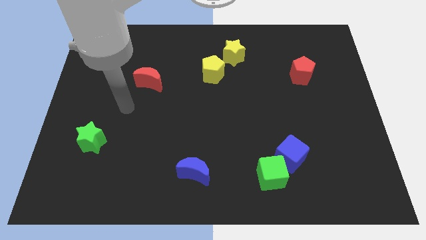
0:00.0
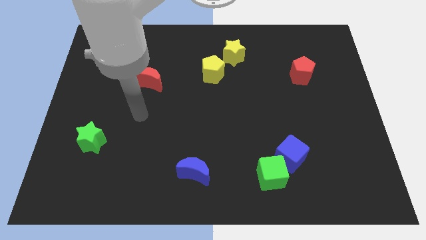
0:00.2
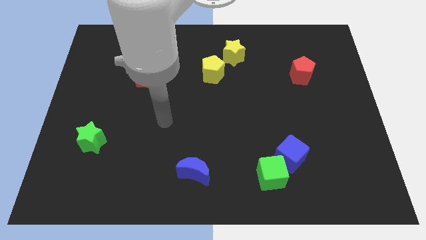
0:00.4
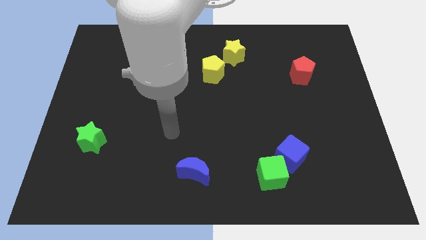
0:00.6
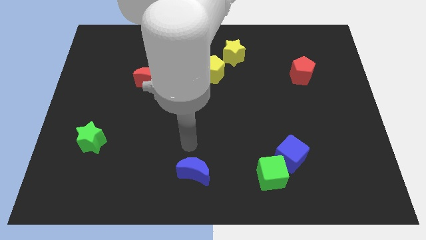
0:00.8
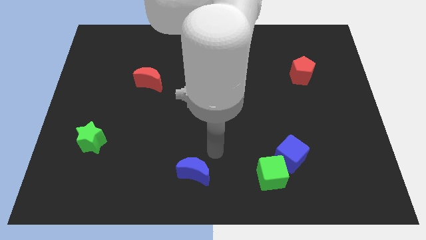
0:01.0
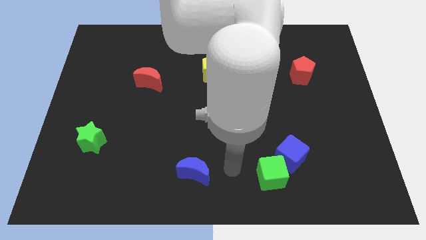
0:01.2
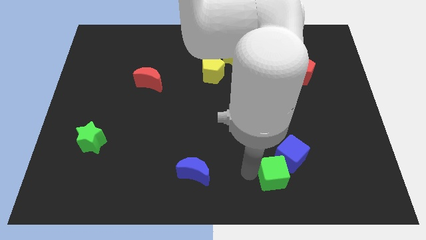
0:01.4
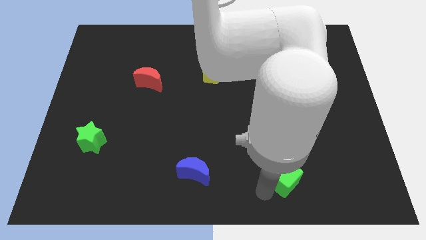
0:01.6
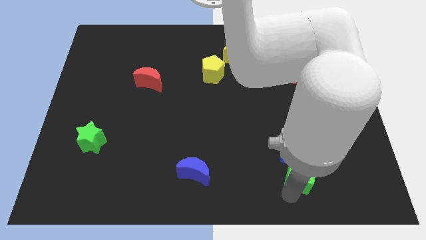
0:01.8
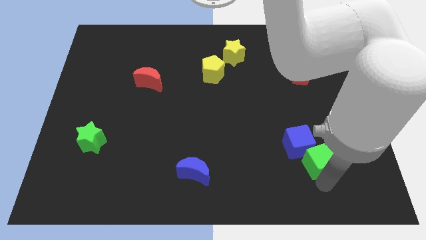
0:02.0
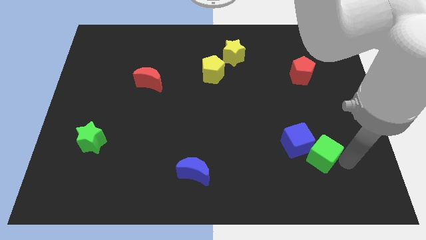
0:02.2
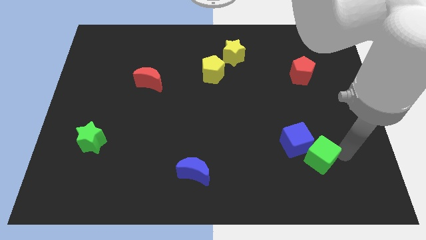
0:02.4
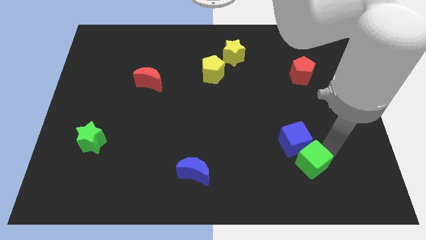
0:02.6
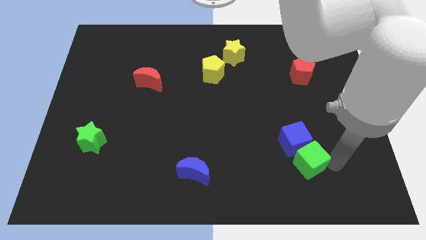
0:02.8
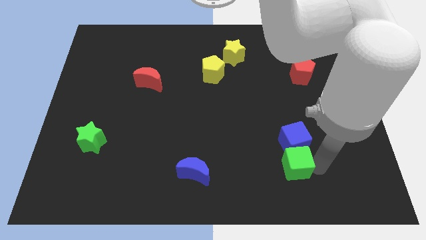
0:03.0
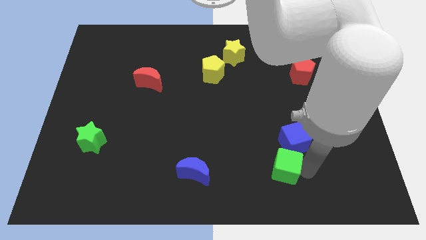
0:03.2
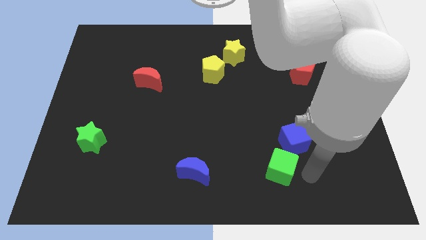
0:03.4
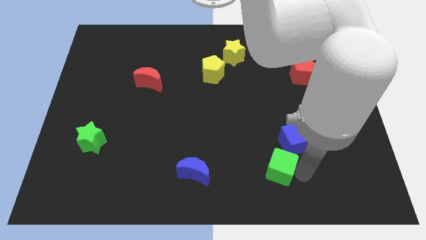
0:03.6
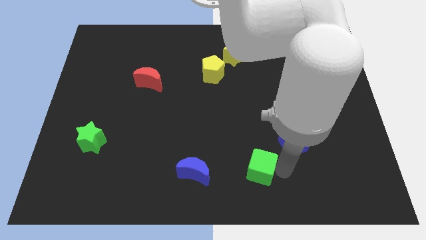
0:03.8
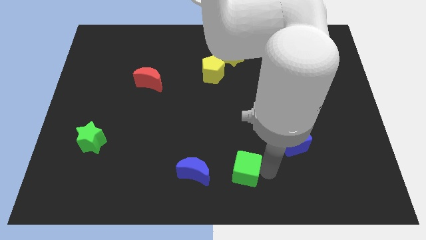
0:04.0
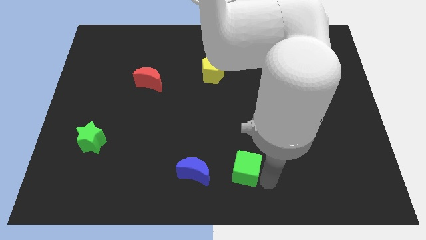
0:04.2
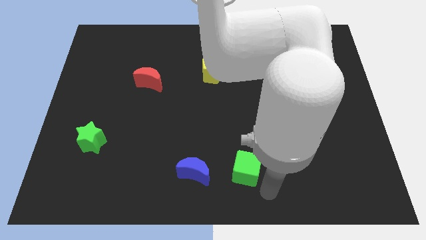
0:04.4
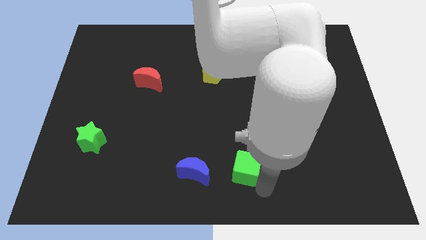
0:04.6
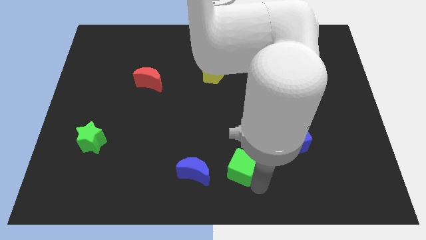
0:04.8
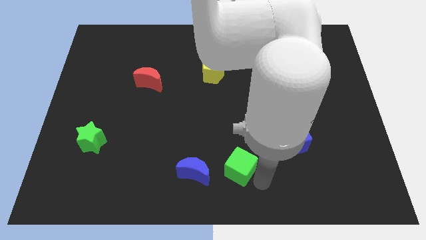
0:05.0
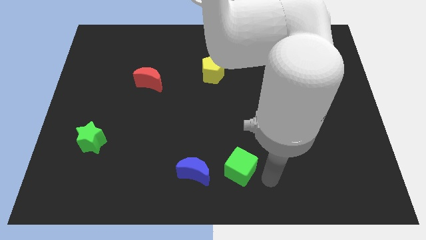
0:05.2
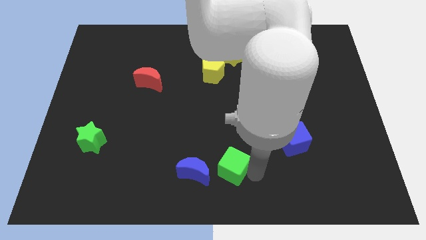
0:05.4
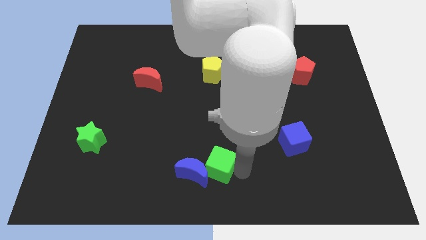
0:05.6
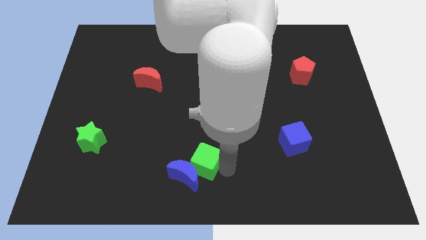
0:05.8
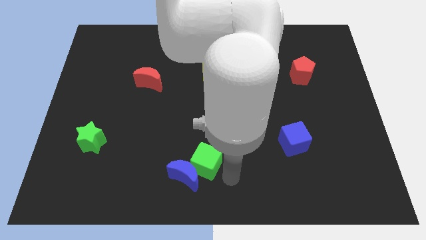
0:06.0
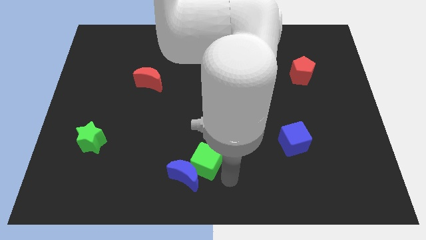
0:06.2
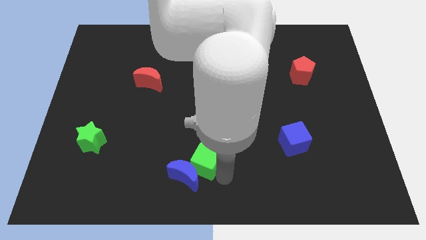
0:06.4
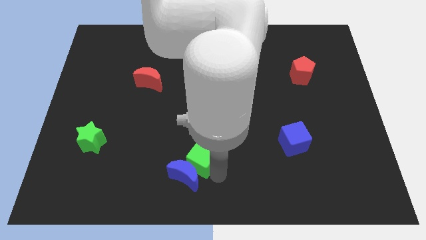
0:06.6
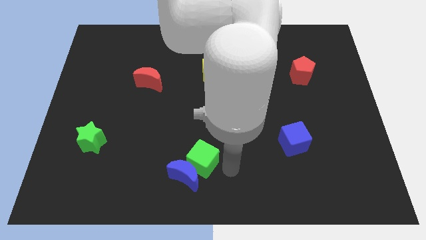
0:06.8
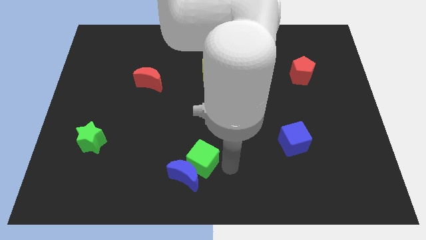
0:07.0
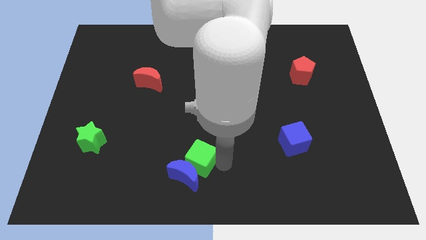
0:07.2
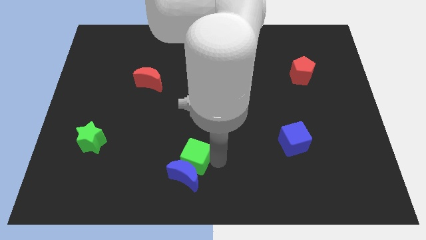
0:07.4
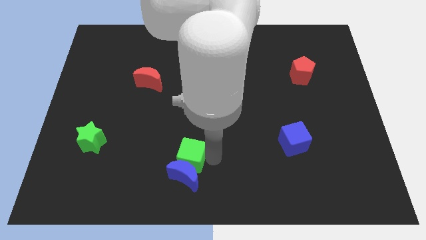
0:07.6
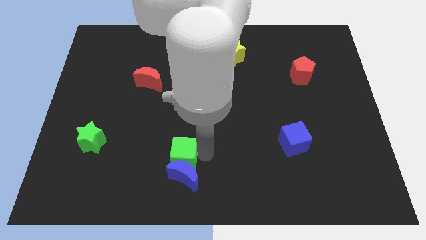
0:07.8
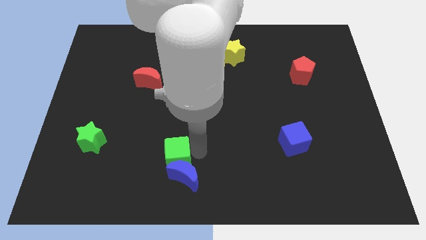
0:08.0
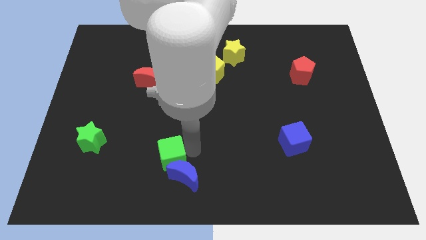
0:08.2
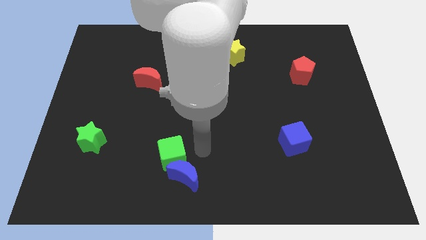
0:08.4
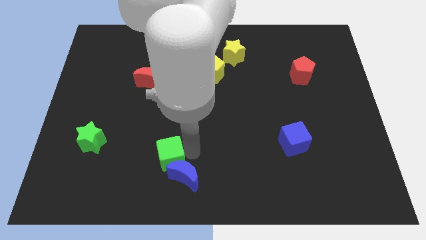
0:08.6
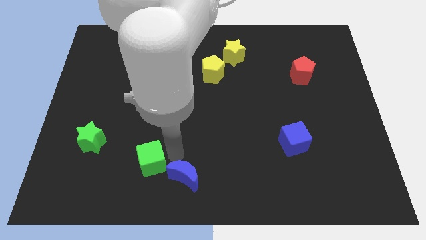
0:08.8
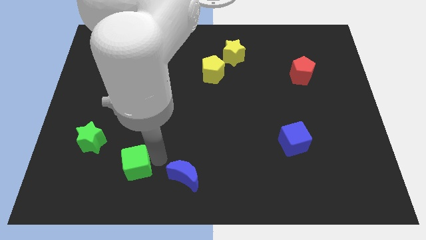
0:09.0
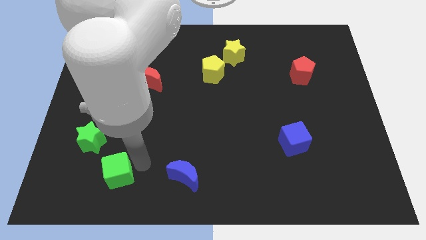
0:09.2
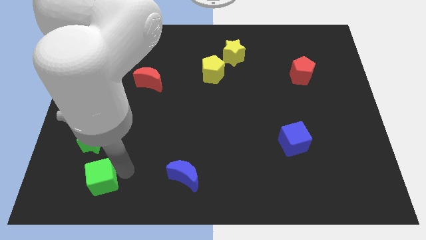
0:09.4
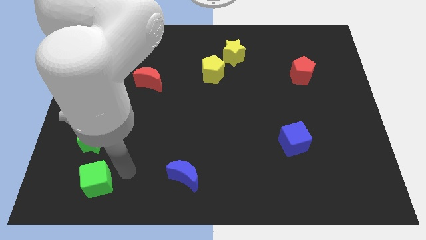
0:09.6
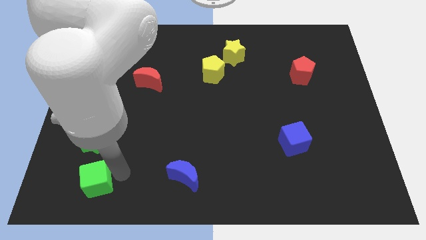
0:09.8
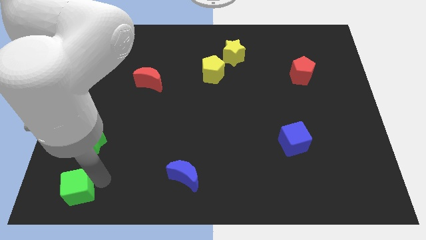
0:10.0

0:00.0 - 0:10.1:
slide the green cube to the lower left corner

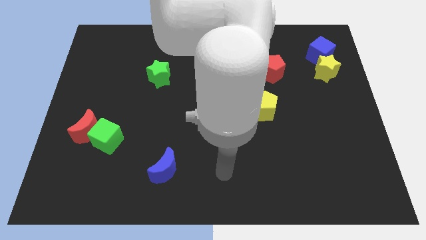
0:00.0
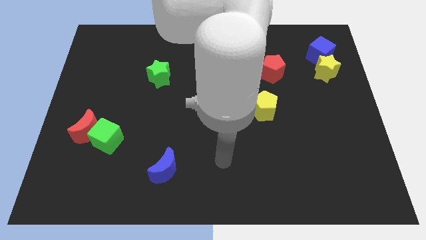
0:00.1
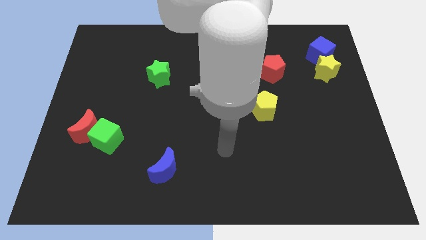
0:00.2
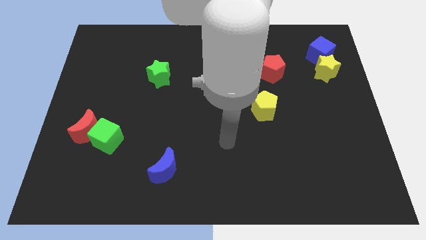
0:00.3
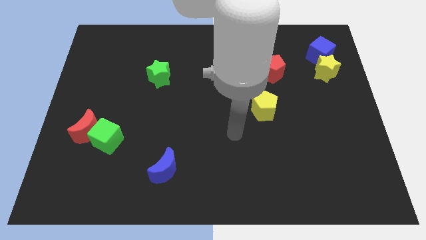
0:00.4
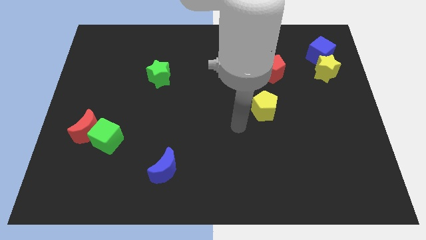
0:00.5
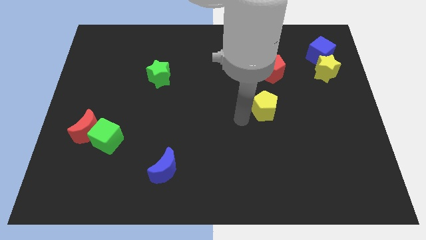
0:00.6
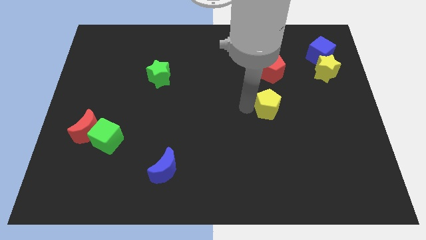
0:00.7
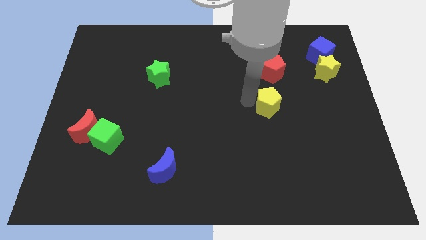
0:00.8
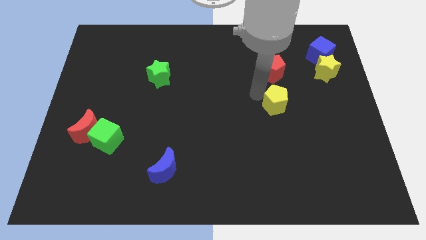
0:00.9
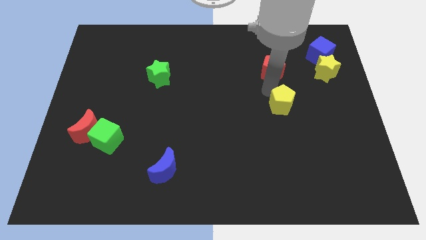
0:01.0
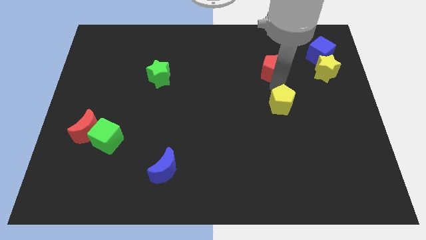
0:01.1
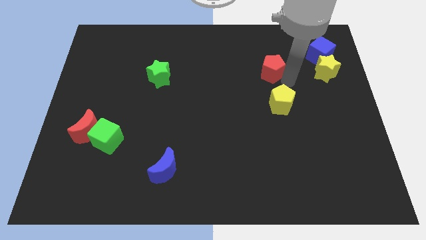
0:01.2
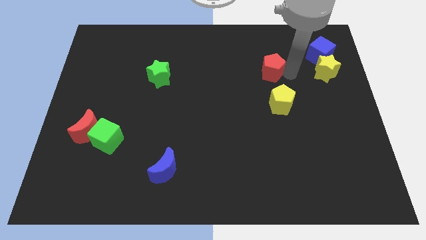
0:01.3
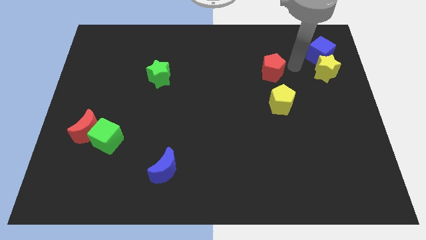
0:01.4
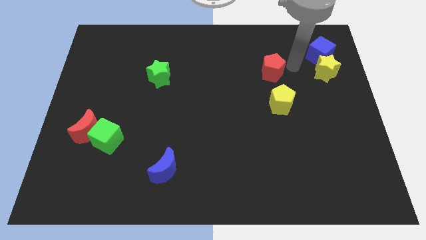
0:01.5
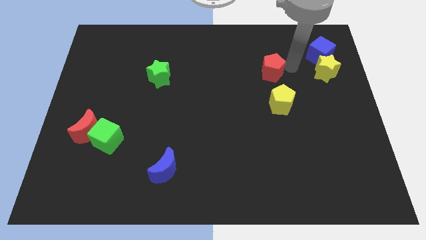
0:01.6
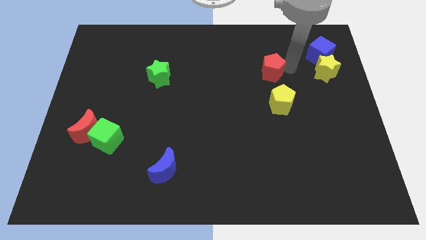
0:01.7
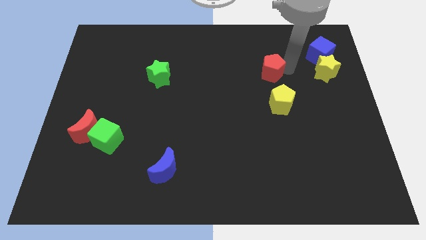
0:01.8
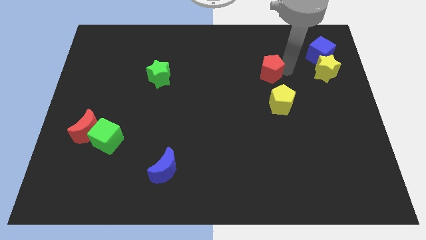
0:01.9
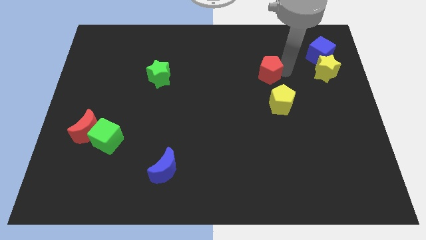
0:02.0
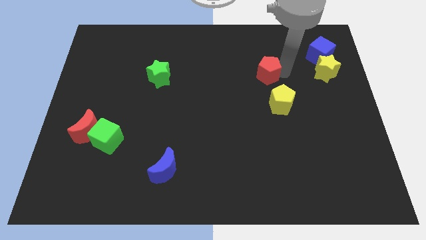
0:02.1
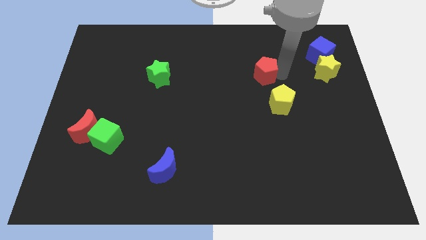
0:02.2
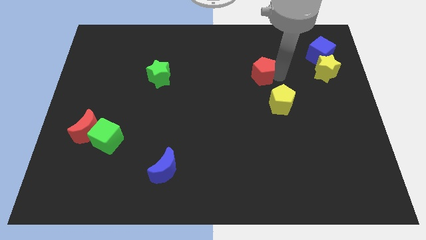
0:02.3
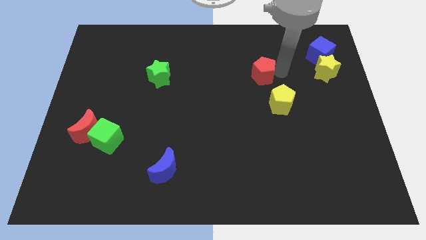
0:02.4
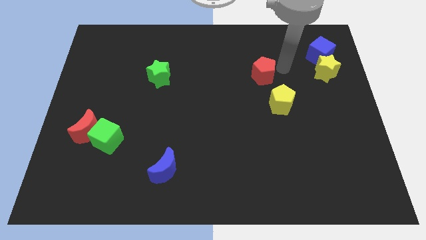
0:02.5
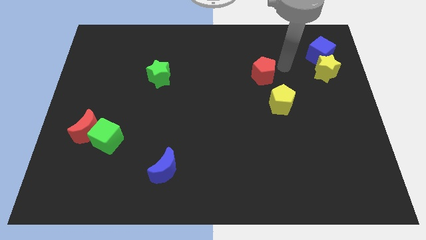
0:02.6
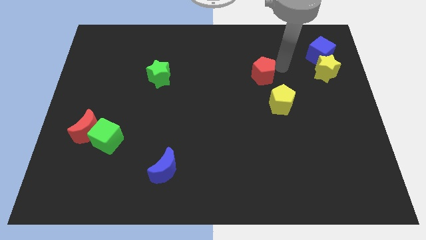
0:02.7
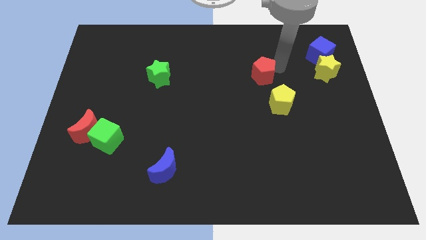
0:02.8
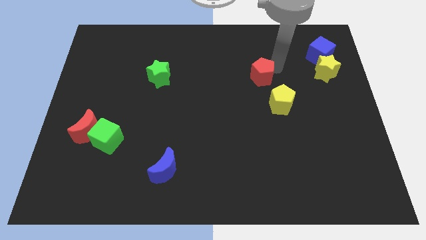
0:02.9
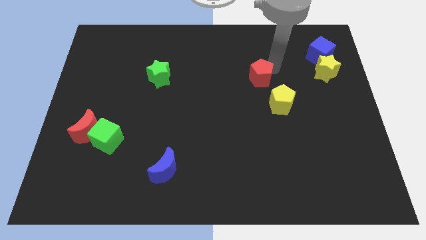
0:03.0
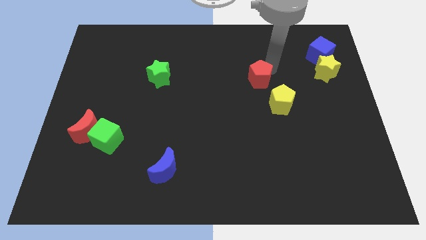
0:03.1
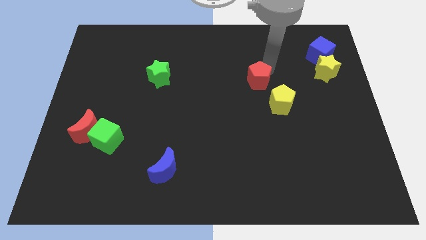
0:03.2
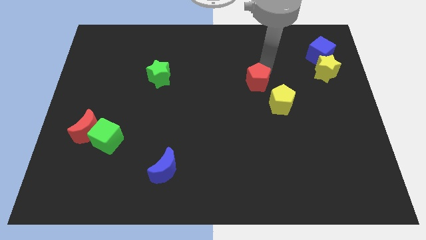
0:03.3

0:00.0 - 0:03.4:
move the red pentagon to the middle
